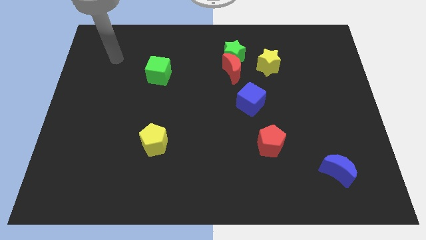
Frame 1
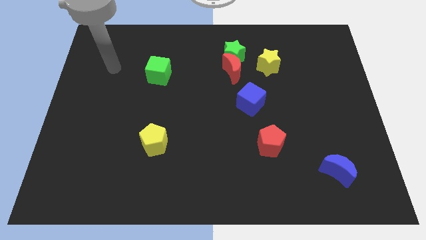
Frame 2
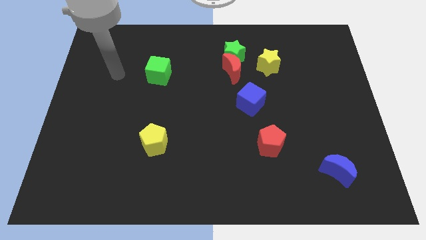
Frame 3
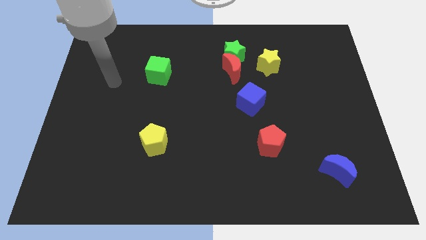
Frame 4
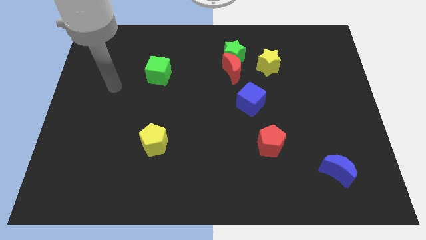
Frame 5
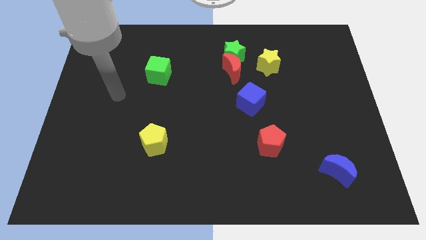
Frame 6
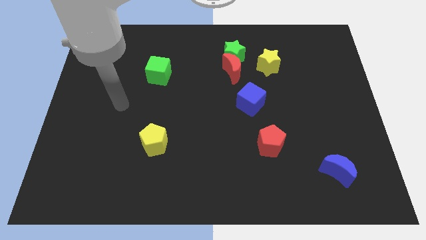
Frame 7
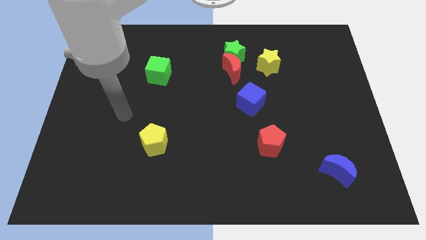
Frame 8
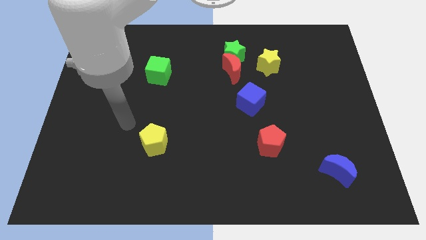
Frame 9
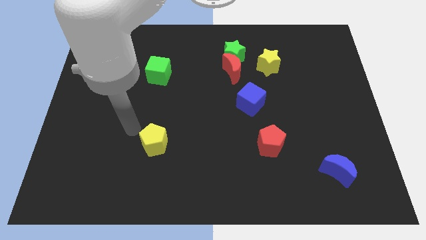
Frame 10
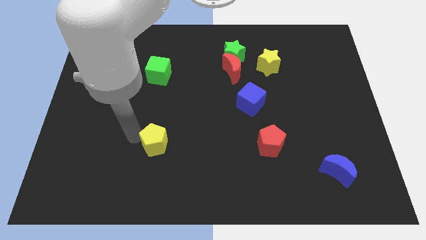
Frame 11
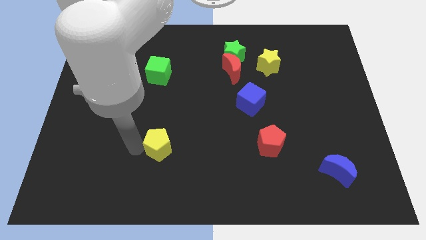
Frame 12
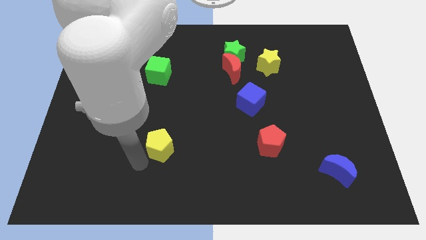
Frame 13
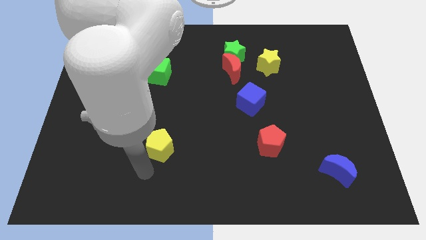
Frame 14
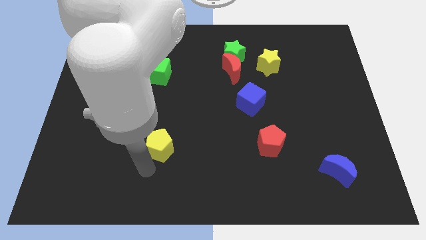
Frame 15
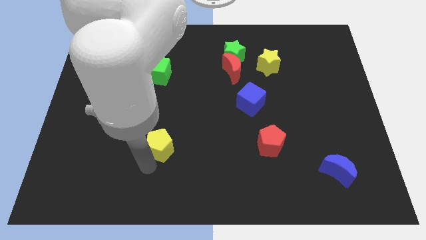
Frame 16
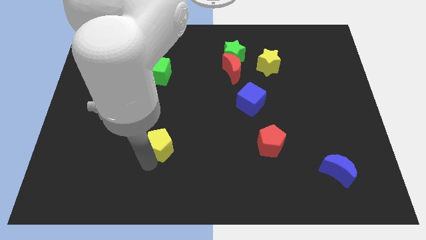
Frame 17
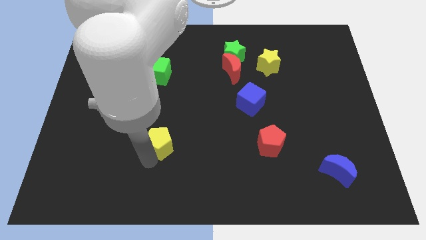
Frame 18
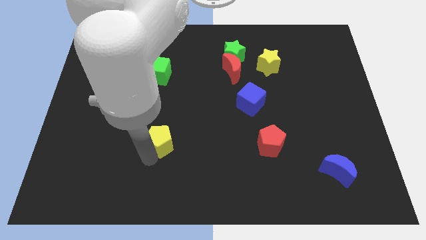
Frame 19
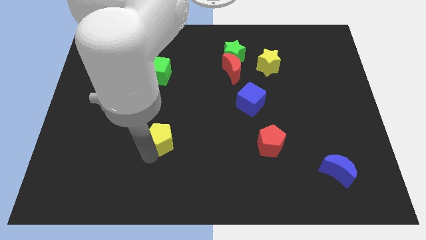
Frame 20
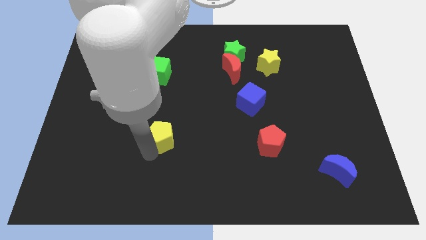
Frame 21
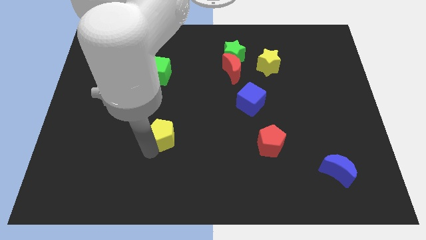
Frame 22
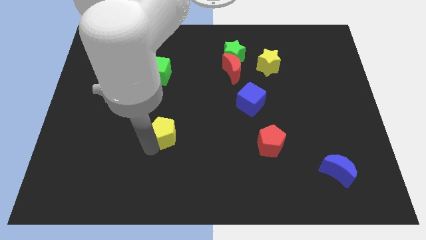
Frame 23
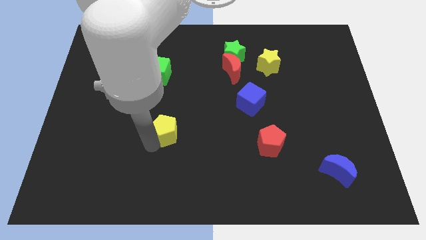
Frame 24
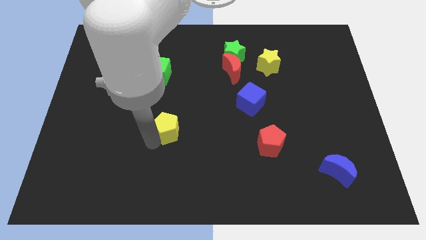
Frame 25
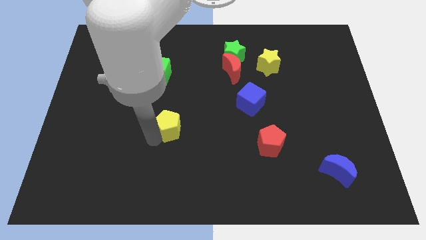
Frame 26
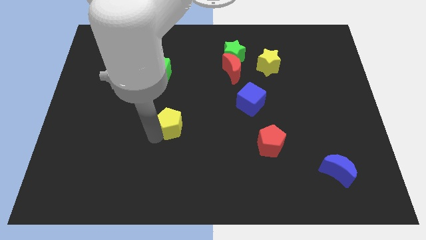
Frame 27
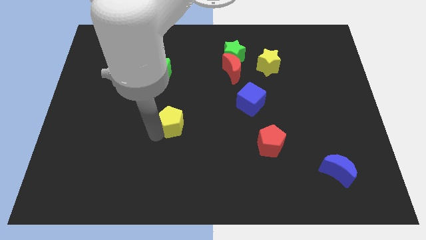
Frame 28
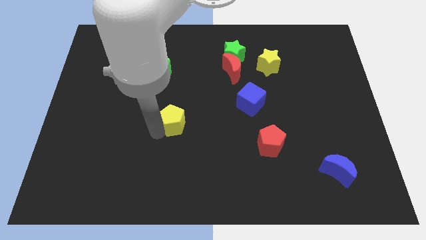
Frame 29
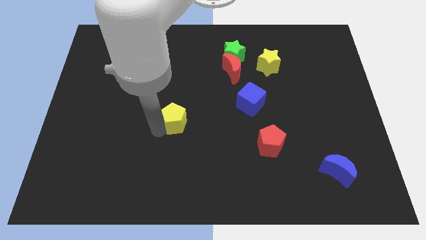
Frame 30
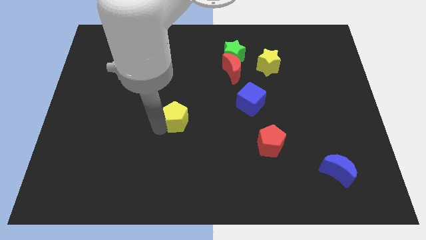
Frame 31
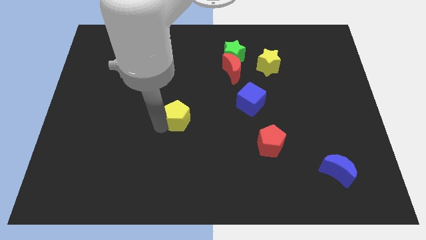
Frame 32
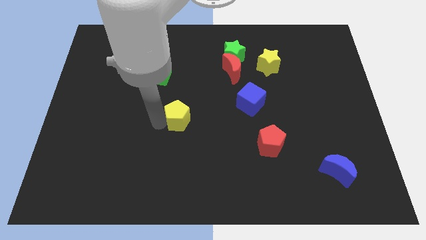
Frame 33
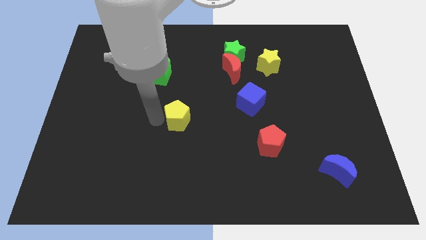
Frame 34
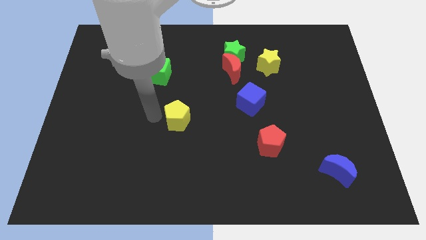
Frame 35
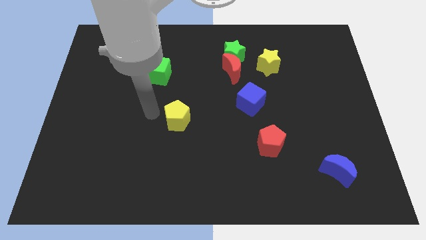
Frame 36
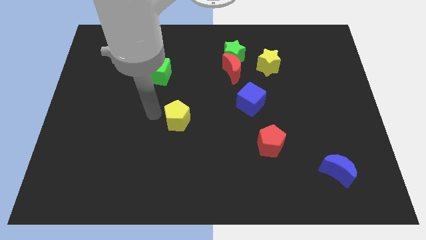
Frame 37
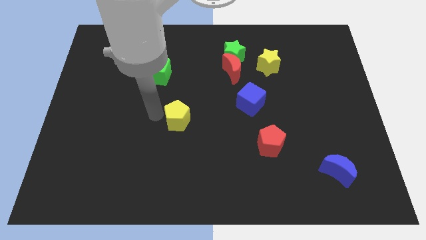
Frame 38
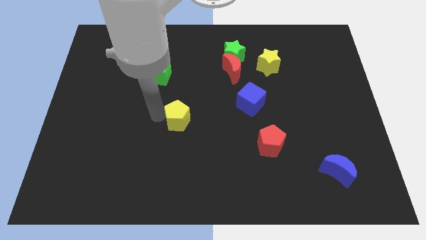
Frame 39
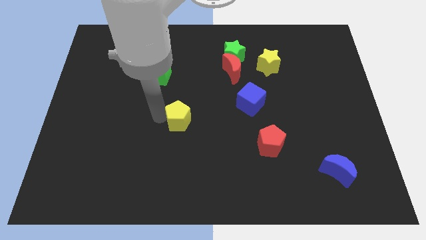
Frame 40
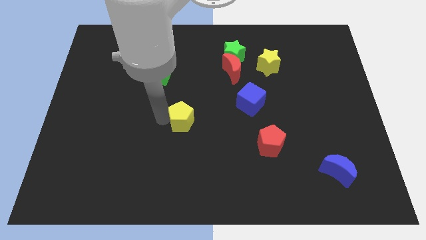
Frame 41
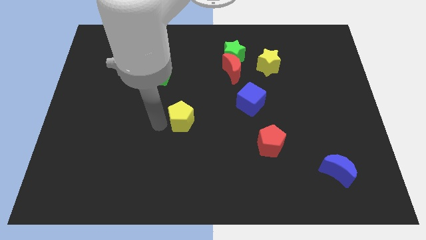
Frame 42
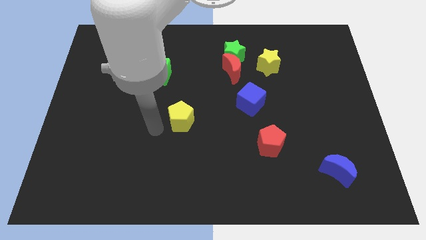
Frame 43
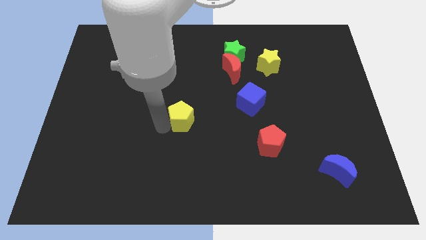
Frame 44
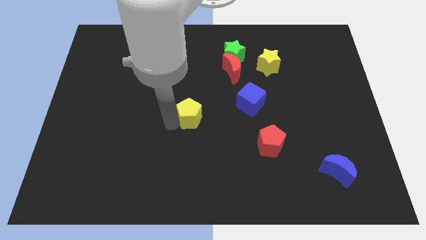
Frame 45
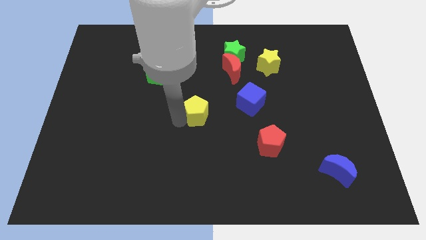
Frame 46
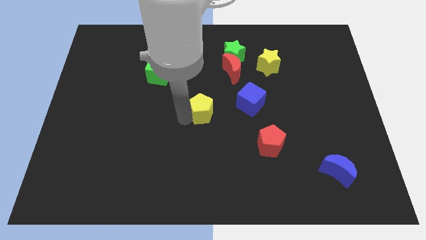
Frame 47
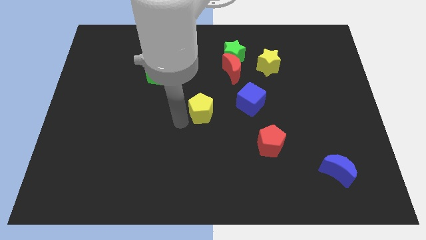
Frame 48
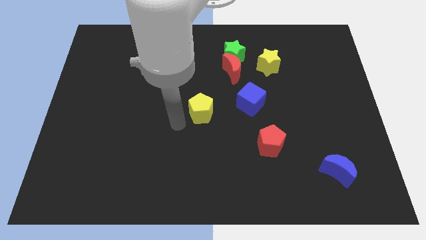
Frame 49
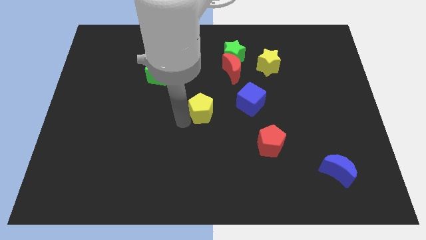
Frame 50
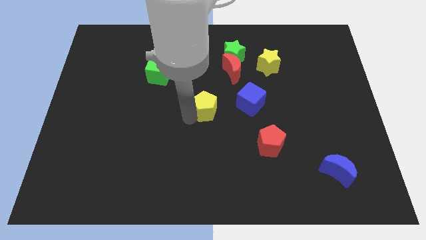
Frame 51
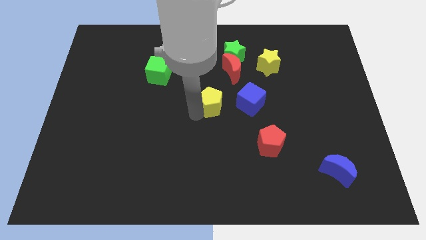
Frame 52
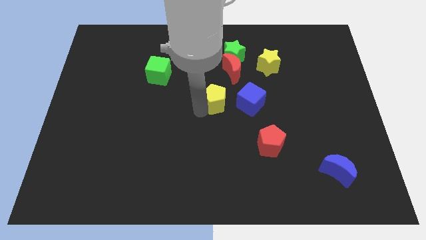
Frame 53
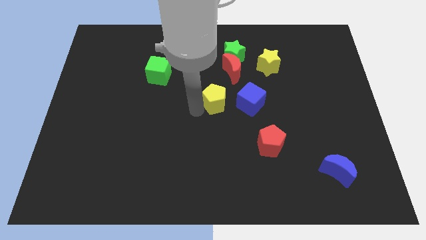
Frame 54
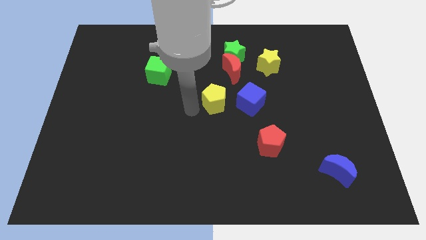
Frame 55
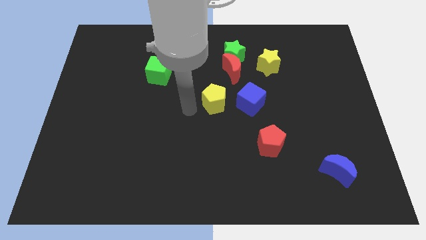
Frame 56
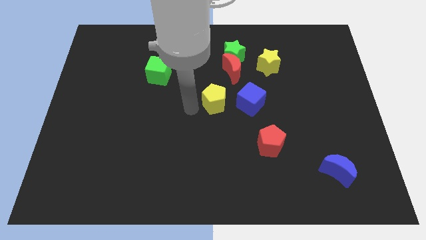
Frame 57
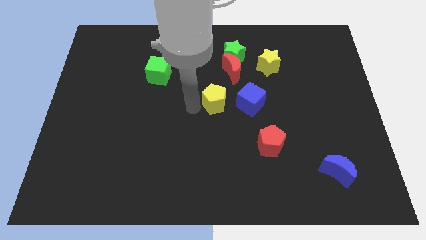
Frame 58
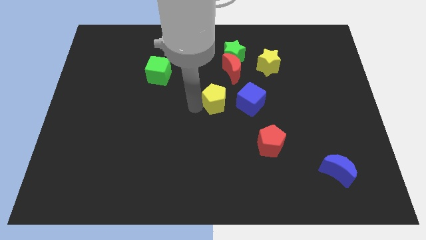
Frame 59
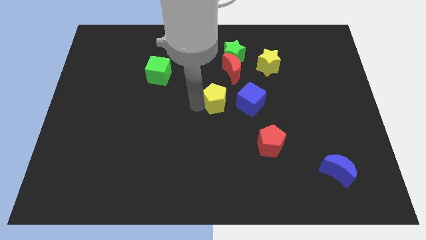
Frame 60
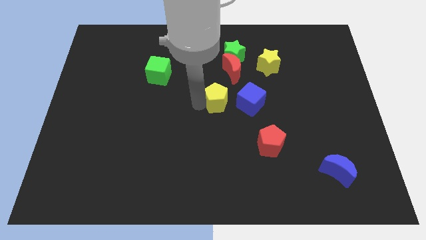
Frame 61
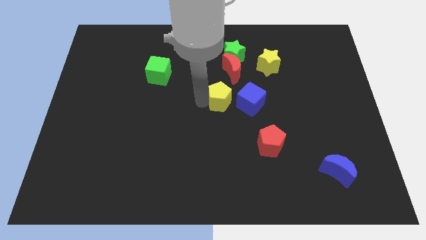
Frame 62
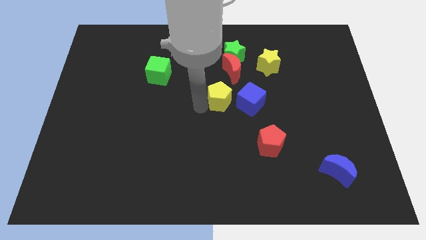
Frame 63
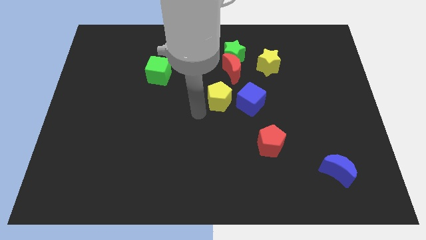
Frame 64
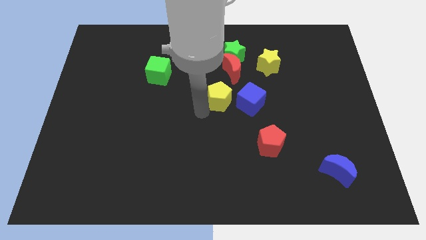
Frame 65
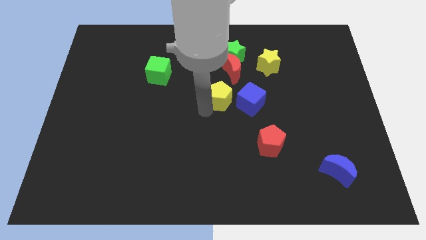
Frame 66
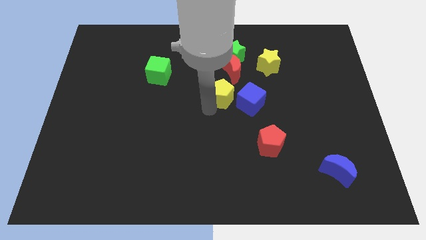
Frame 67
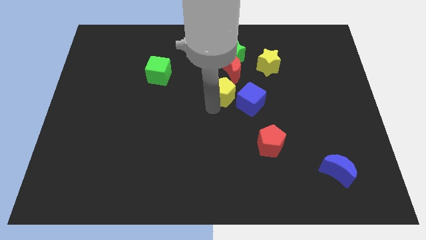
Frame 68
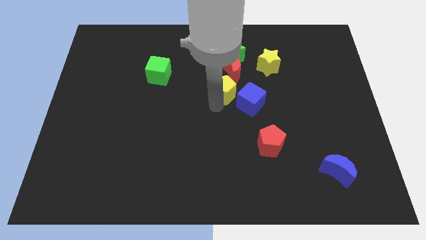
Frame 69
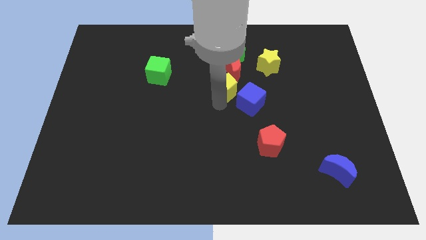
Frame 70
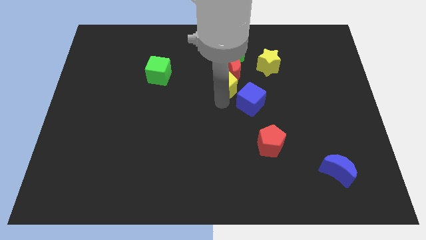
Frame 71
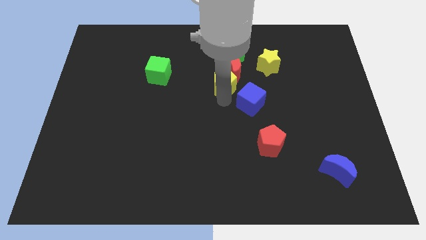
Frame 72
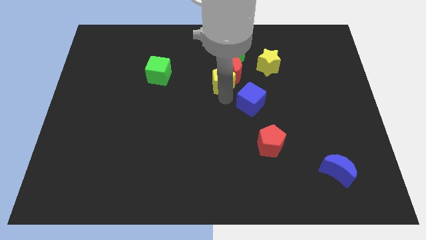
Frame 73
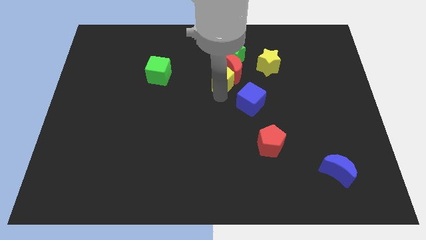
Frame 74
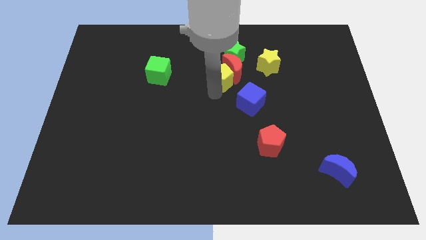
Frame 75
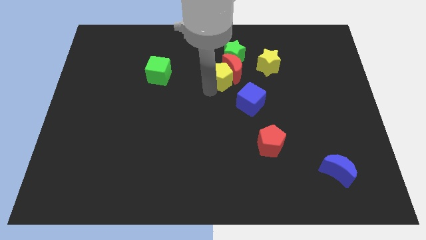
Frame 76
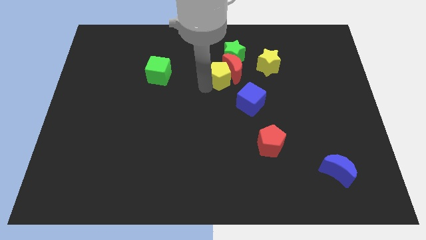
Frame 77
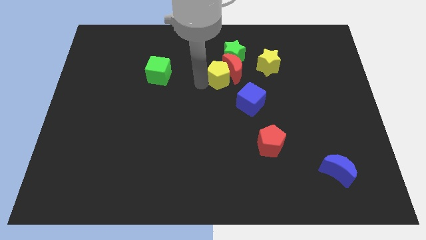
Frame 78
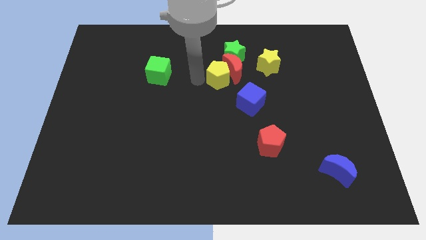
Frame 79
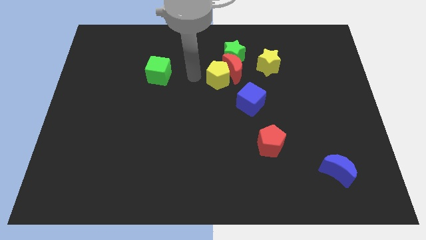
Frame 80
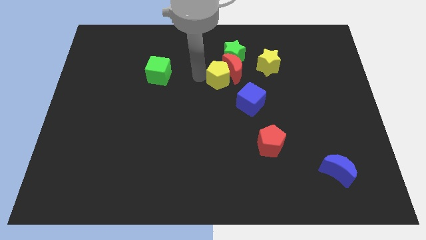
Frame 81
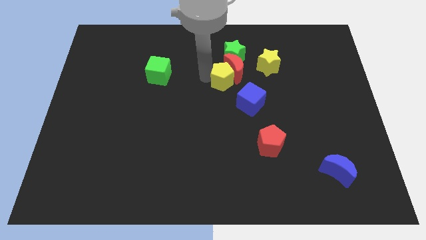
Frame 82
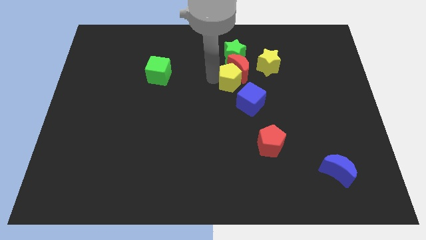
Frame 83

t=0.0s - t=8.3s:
put the yellow pentagon to the bottom left side of the yellow star
